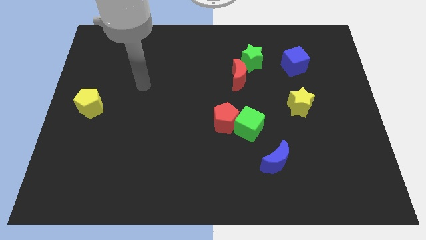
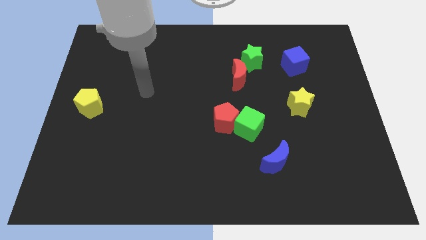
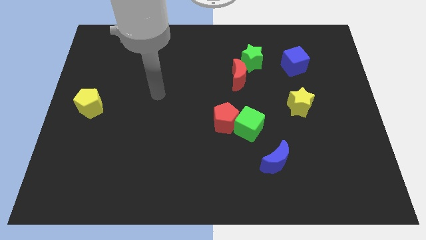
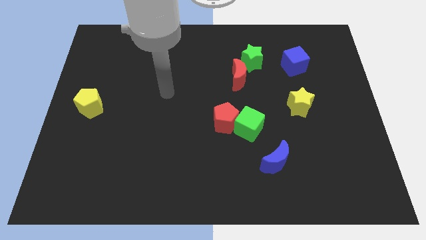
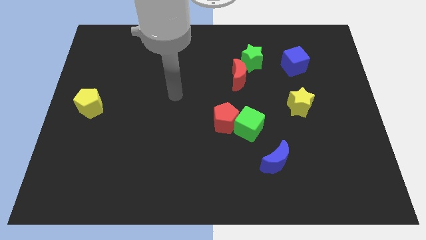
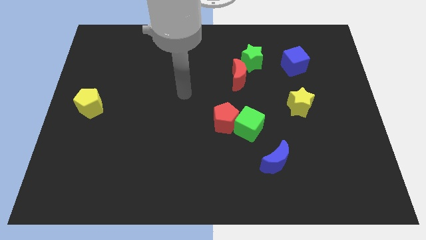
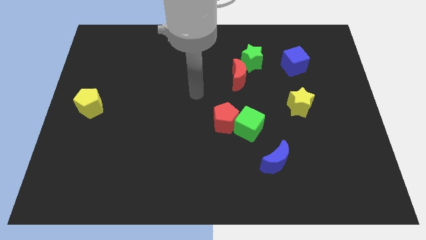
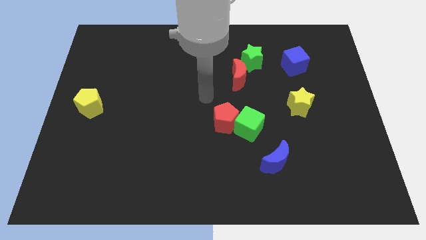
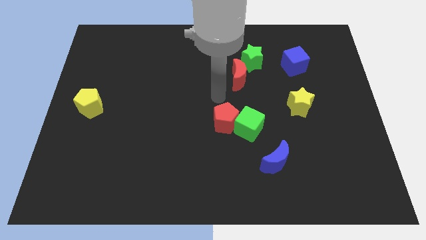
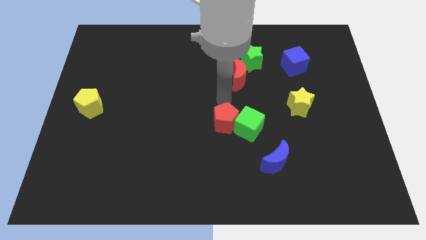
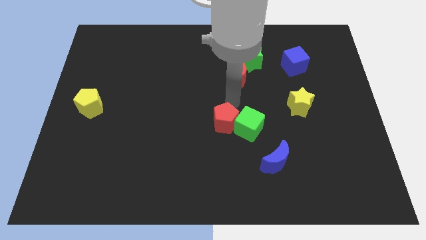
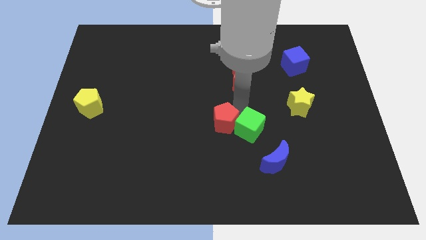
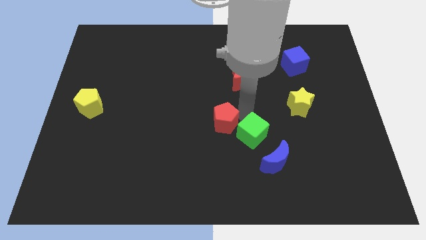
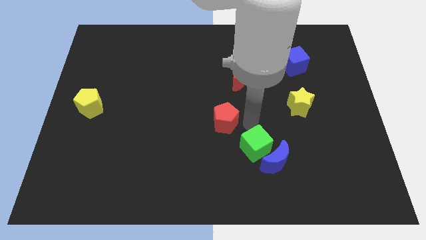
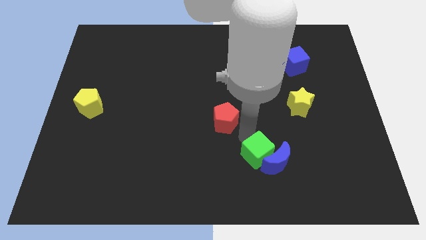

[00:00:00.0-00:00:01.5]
move the red pentagon away from the green cube

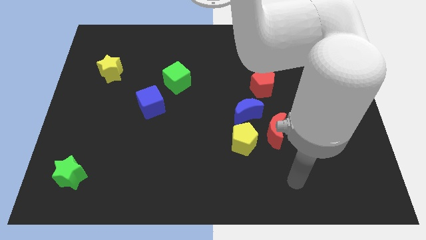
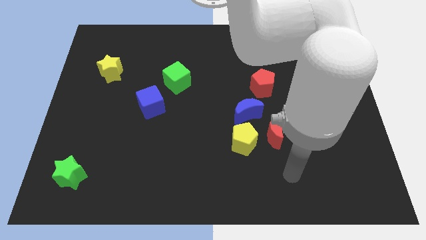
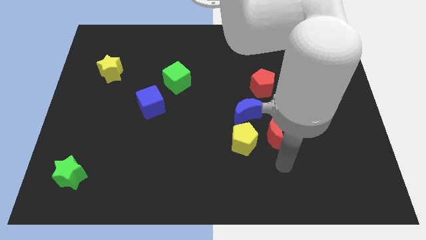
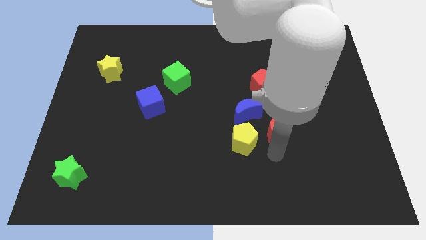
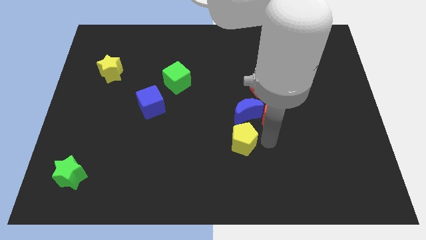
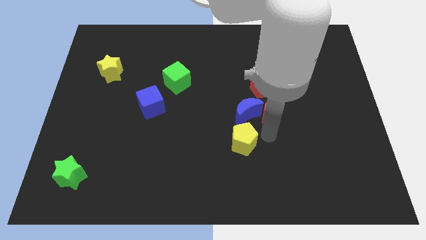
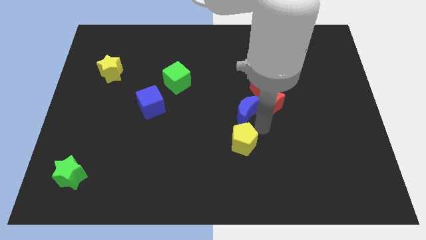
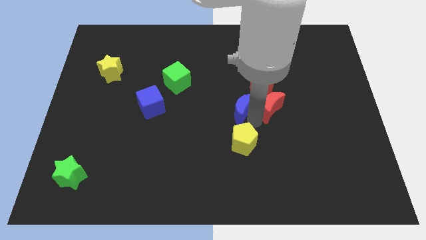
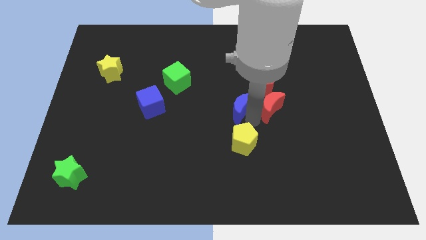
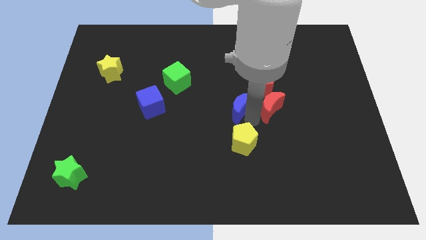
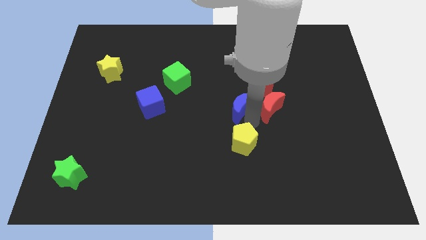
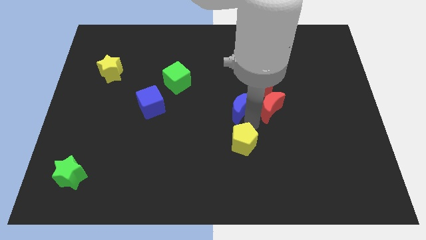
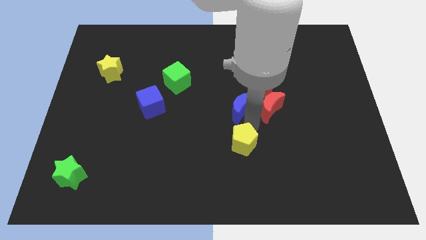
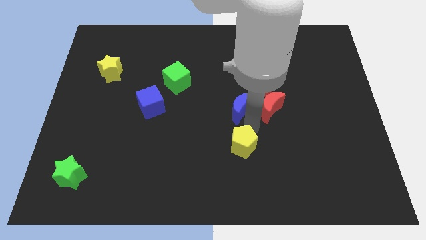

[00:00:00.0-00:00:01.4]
separate the yellow pentagon from the red moon and blue moon

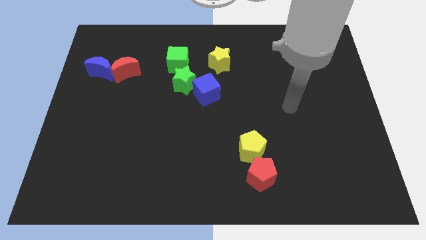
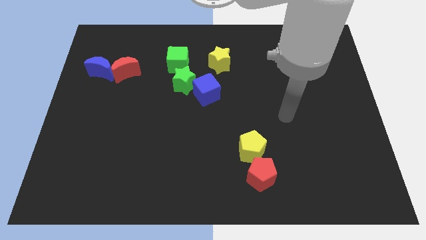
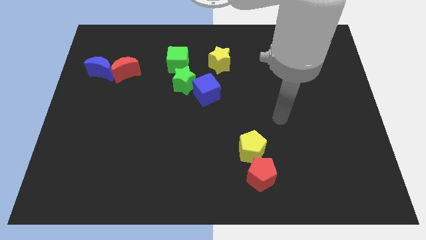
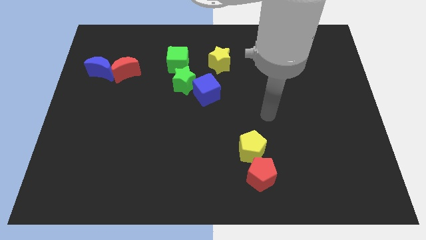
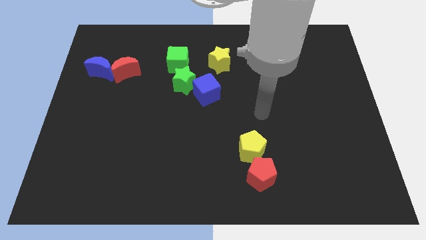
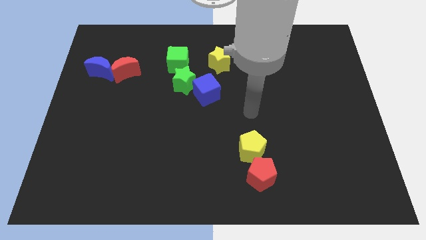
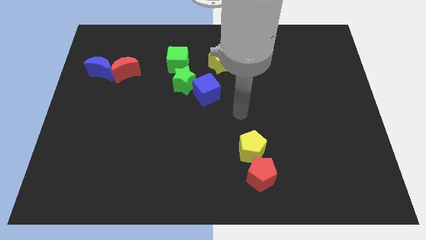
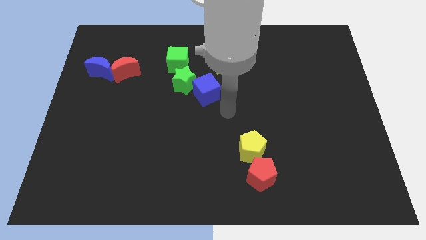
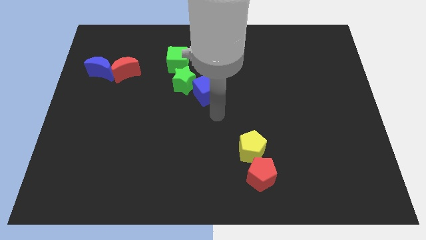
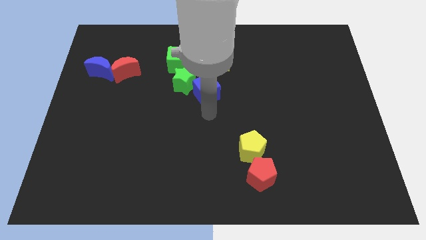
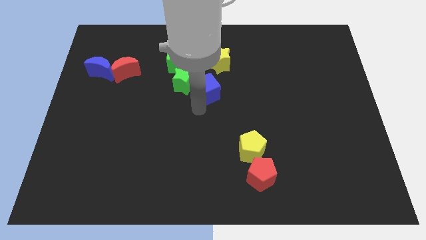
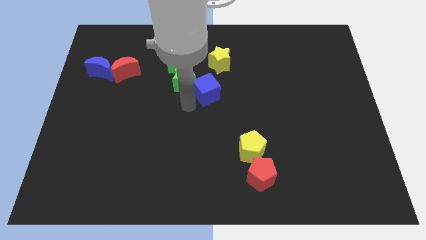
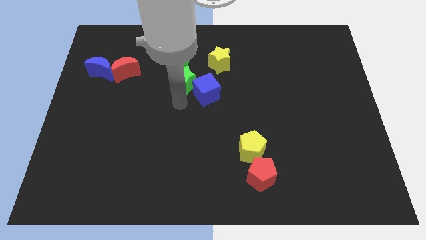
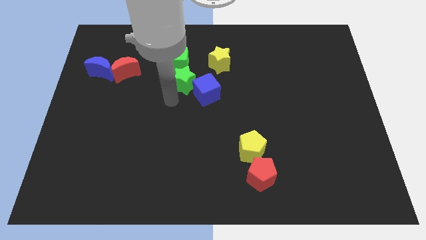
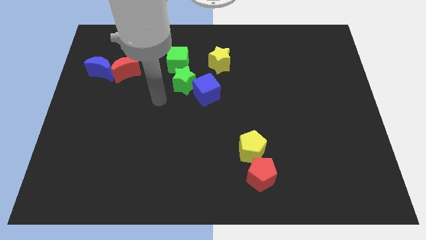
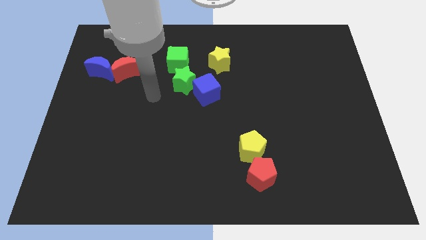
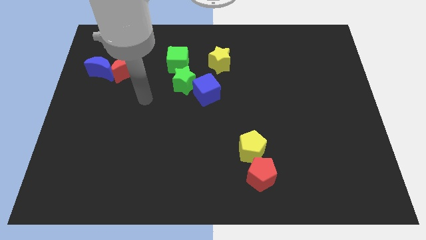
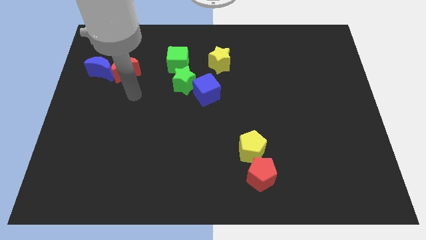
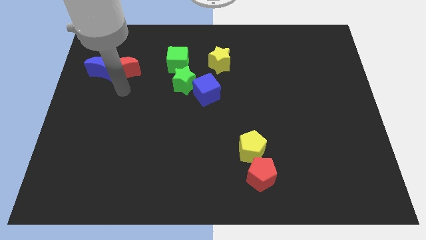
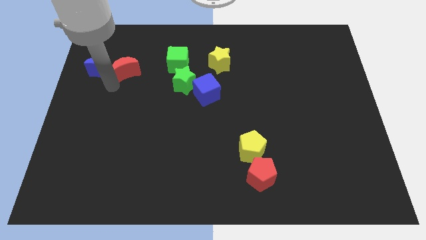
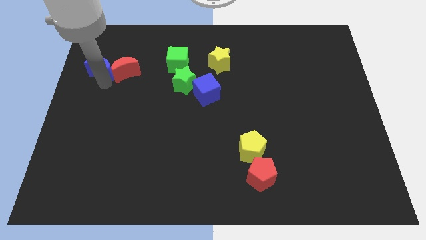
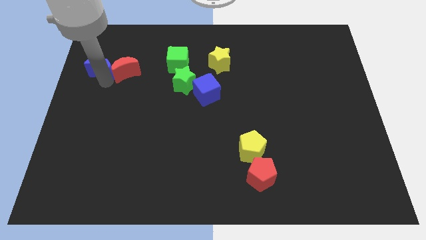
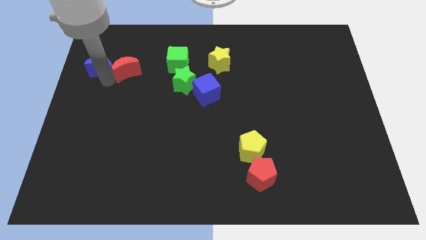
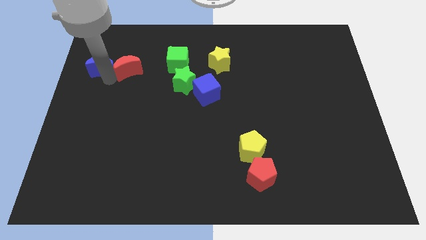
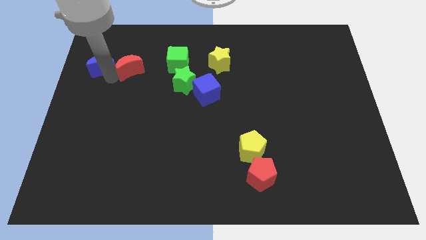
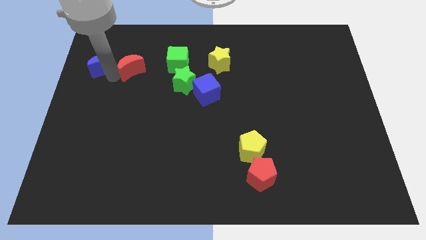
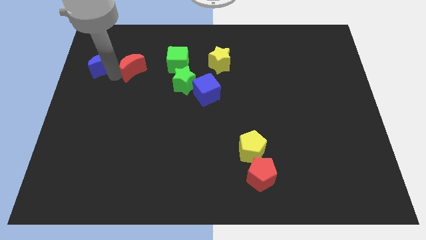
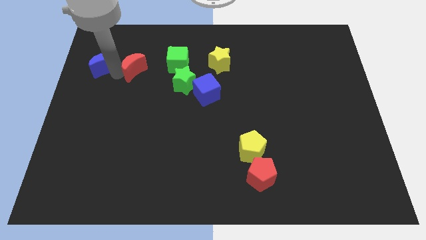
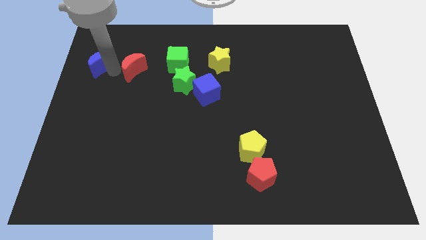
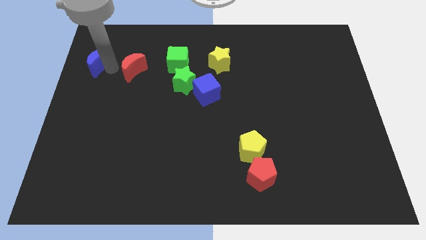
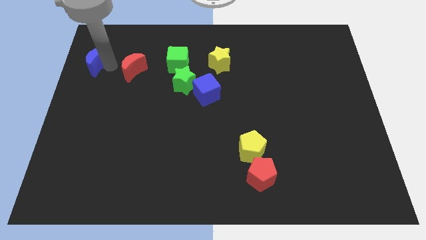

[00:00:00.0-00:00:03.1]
move the red moon away from the blue moon

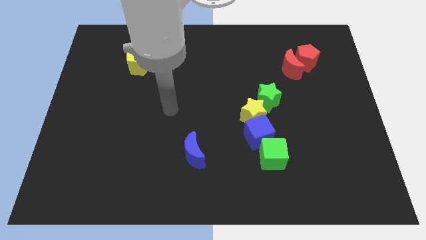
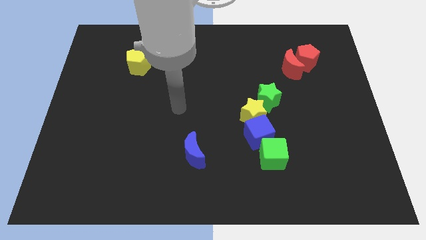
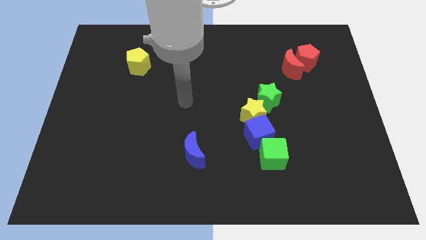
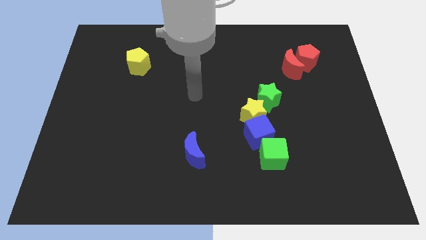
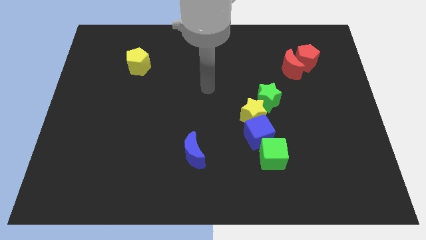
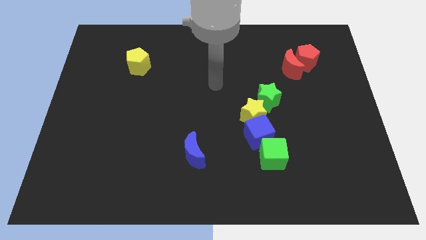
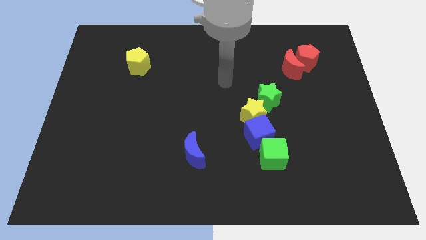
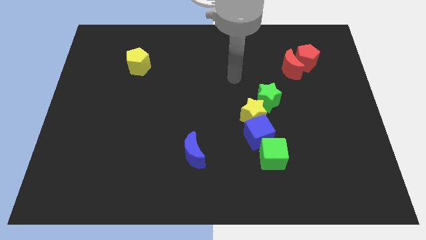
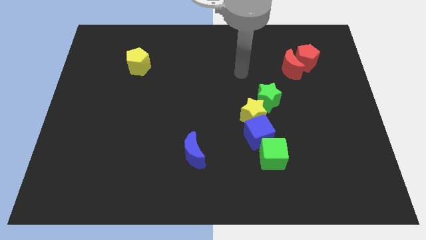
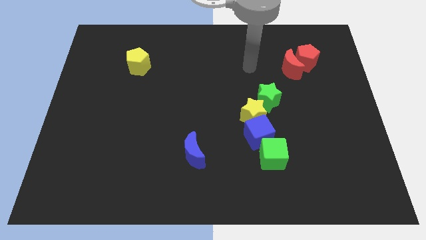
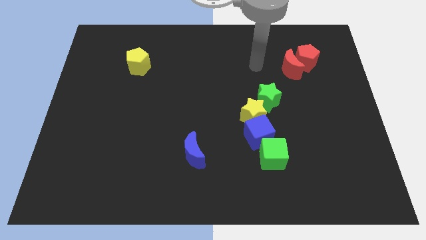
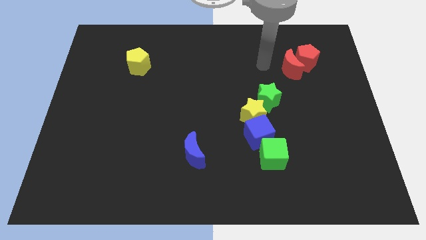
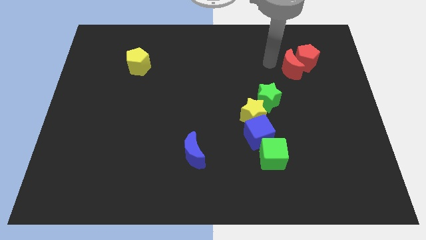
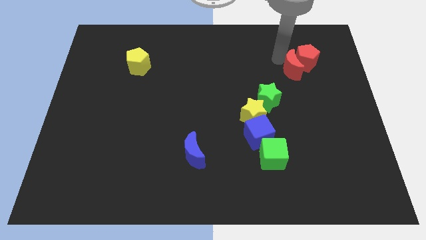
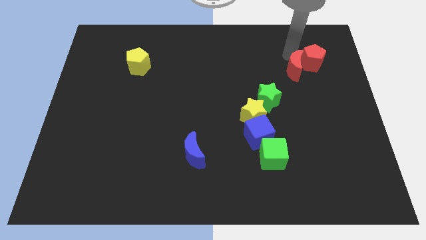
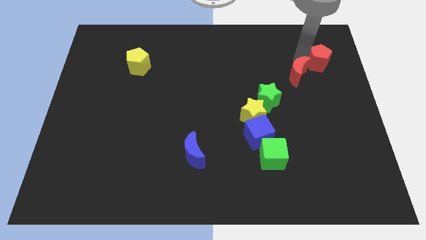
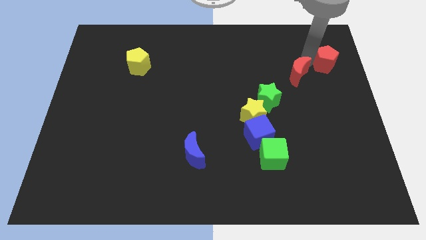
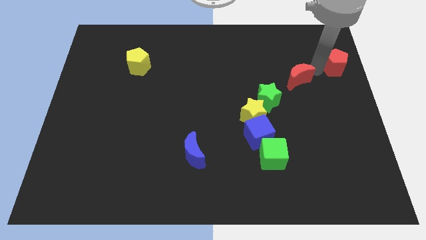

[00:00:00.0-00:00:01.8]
separate the red moon from the red pentagon

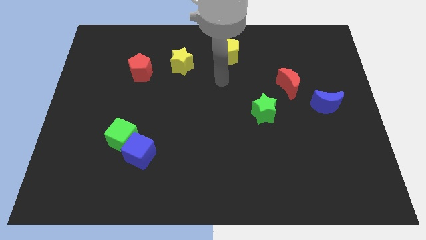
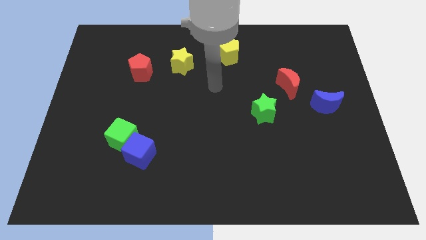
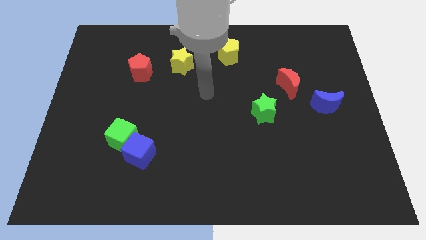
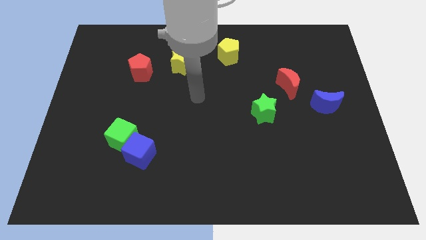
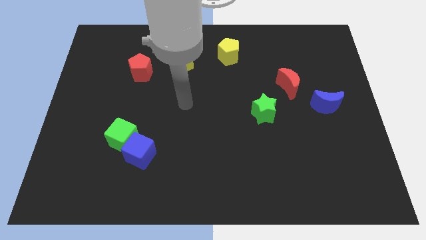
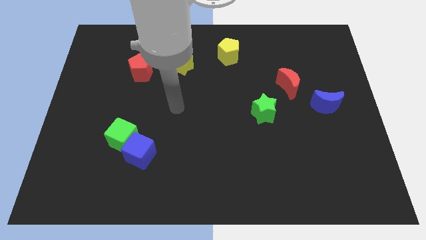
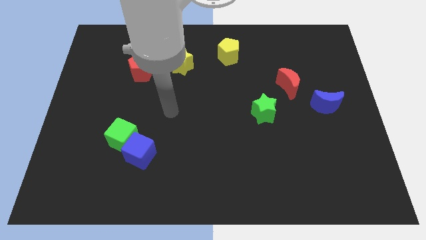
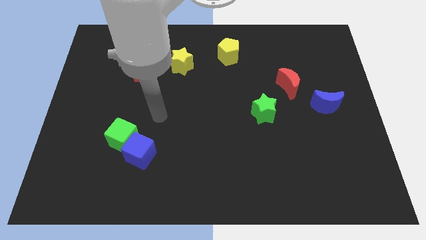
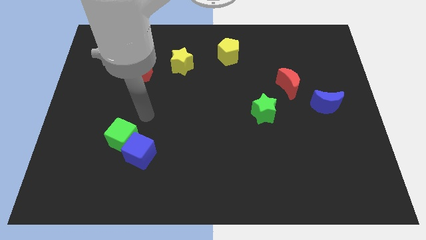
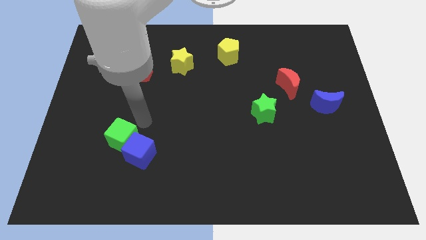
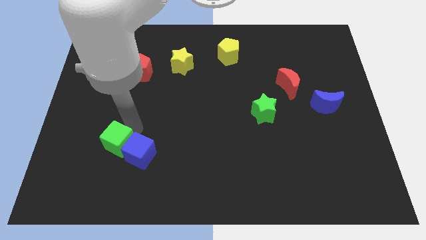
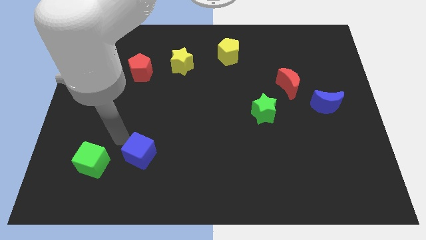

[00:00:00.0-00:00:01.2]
pull the blue cube apart from the green cube

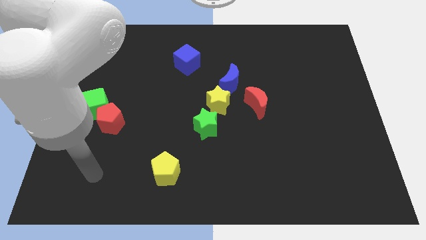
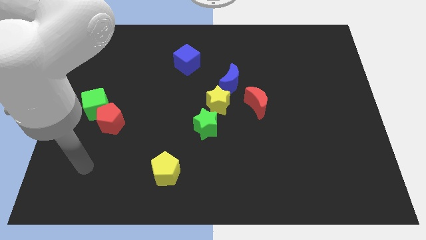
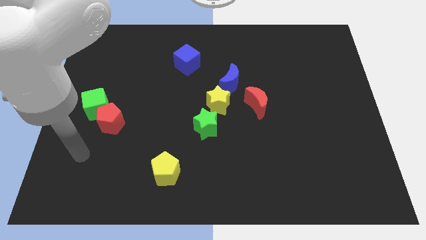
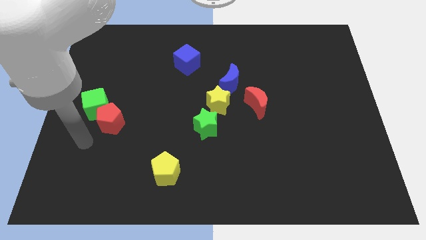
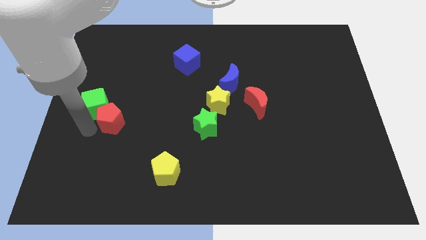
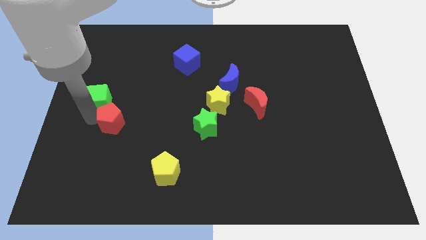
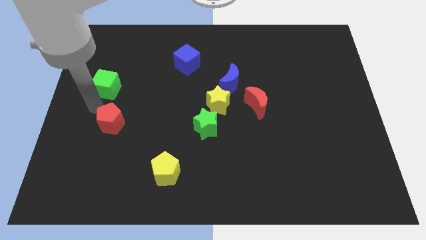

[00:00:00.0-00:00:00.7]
pull the red pentagon apart from the green cube
